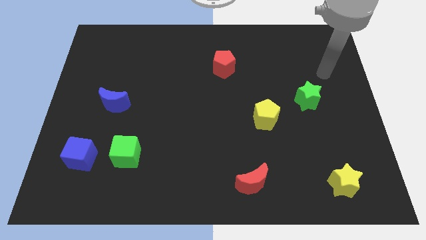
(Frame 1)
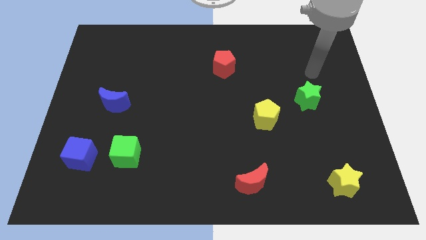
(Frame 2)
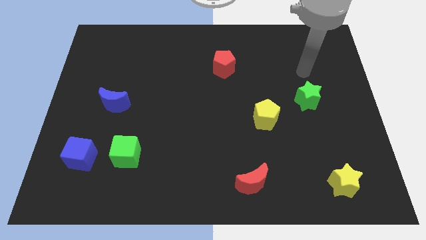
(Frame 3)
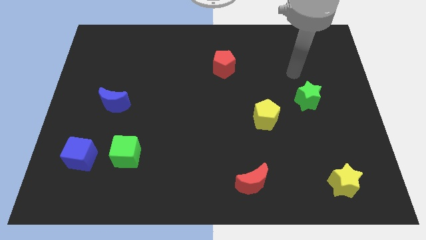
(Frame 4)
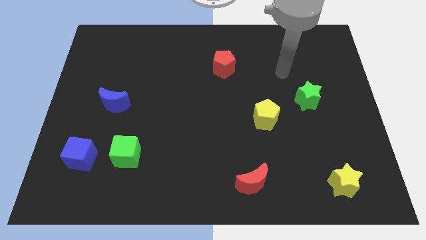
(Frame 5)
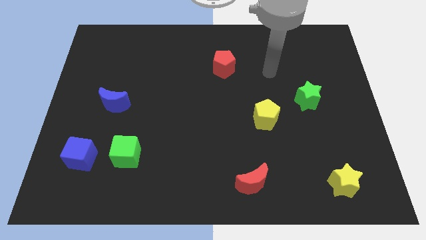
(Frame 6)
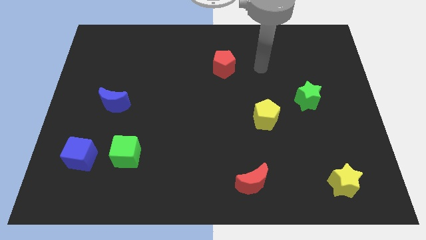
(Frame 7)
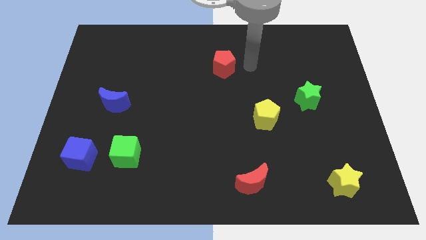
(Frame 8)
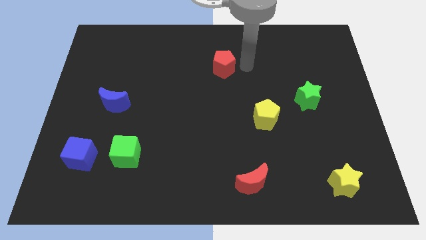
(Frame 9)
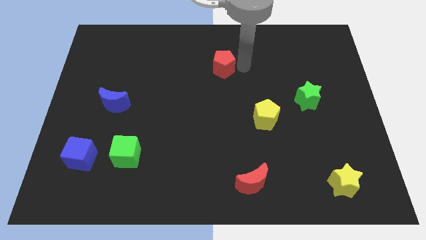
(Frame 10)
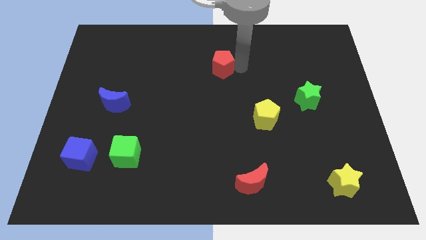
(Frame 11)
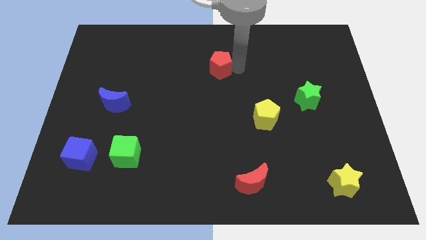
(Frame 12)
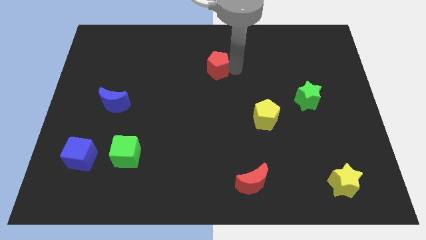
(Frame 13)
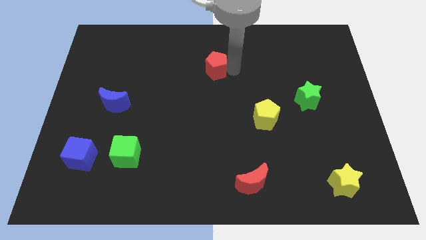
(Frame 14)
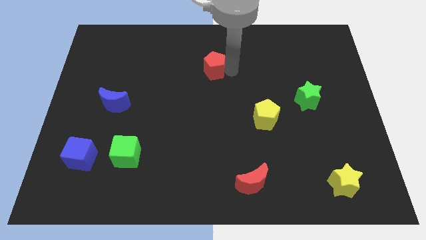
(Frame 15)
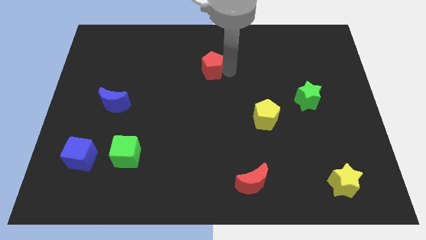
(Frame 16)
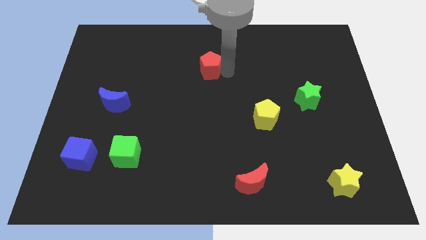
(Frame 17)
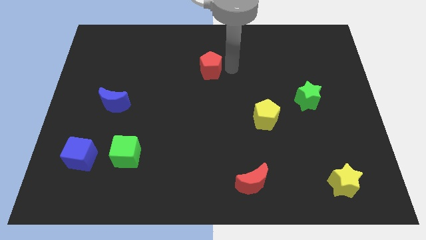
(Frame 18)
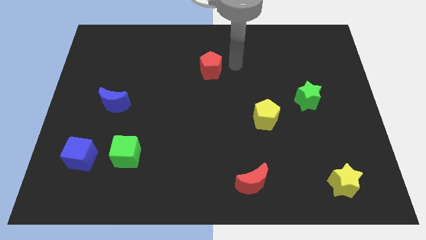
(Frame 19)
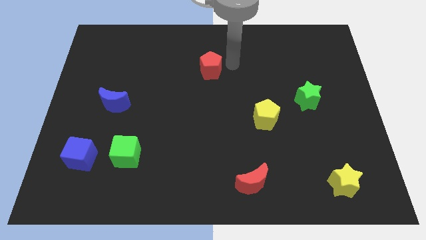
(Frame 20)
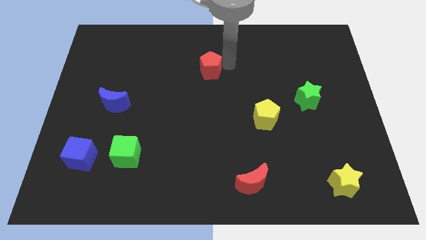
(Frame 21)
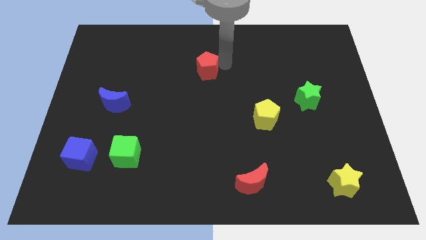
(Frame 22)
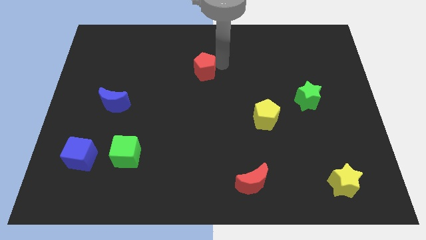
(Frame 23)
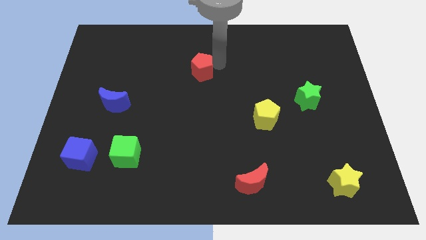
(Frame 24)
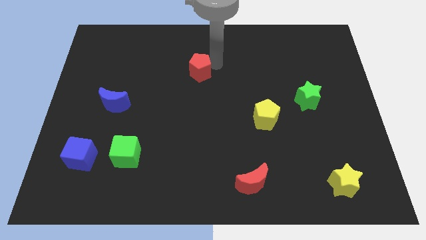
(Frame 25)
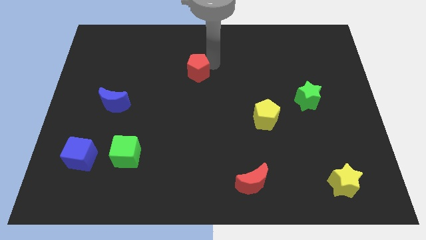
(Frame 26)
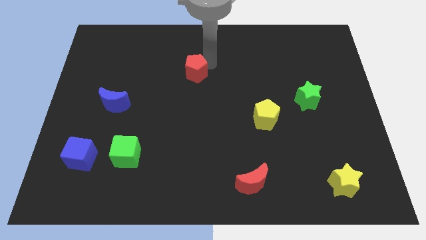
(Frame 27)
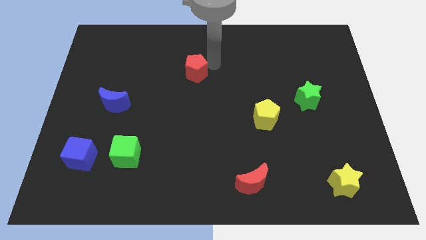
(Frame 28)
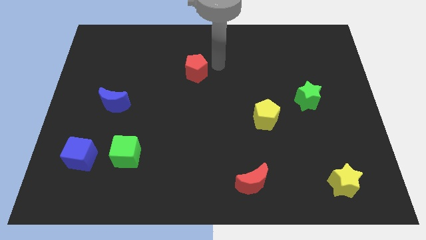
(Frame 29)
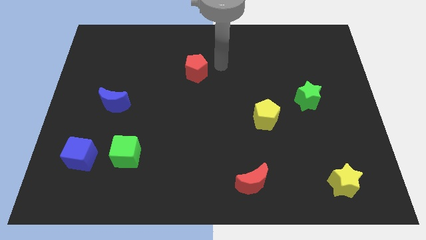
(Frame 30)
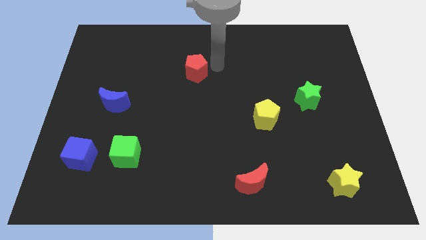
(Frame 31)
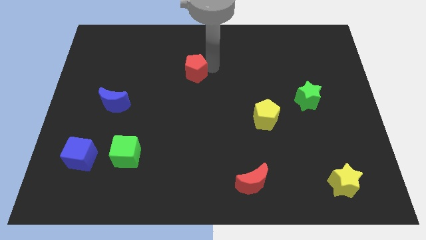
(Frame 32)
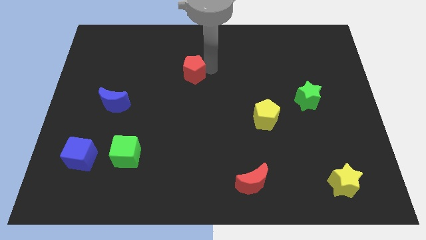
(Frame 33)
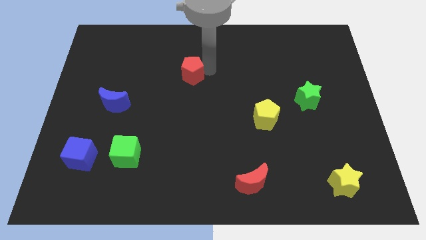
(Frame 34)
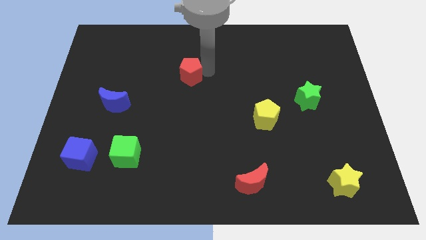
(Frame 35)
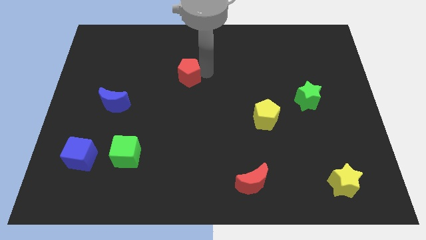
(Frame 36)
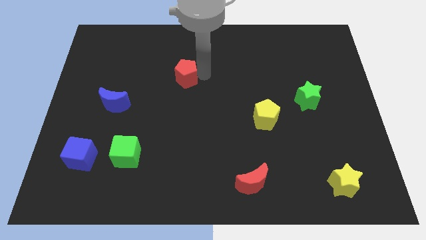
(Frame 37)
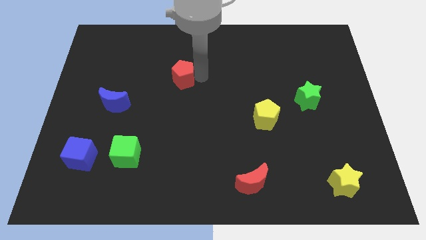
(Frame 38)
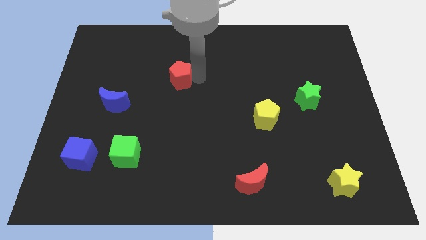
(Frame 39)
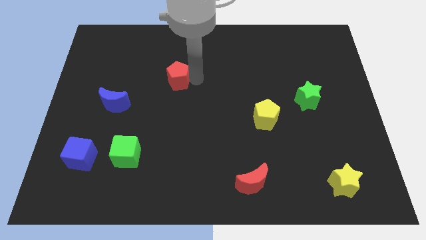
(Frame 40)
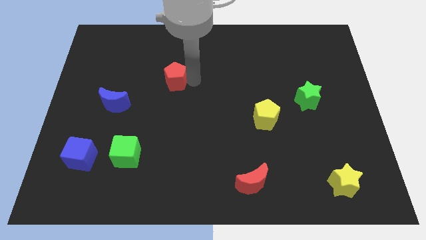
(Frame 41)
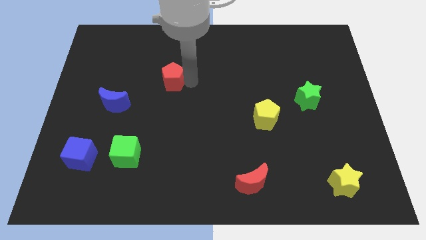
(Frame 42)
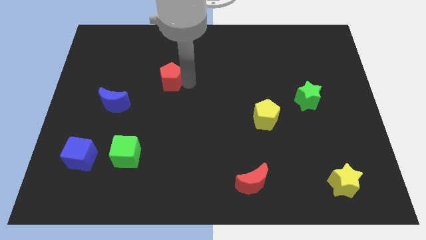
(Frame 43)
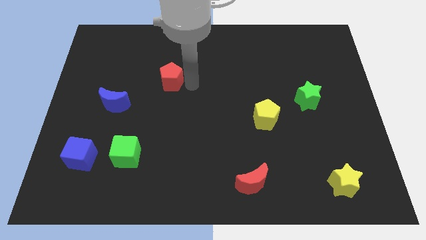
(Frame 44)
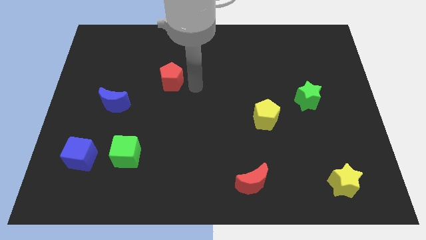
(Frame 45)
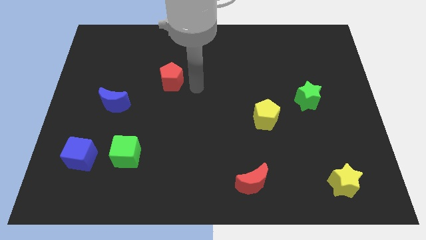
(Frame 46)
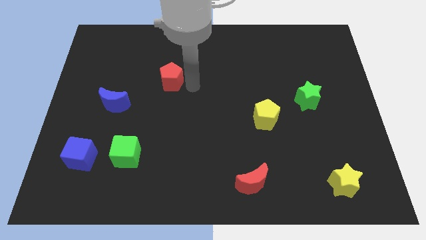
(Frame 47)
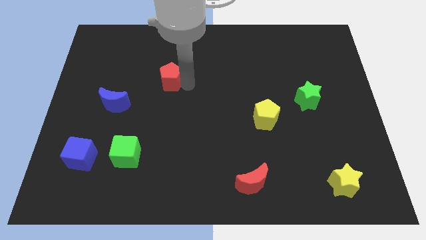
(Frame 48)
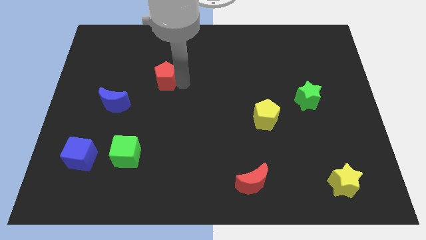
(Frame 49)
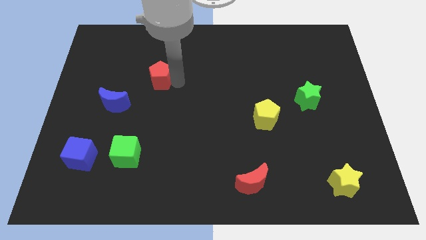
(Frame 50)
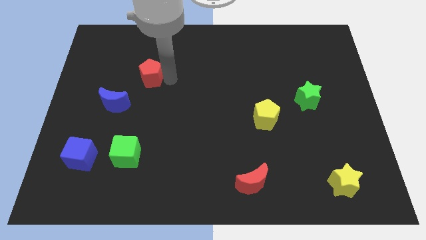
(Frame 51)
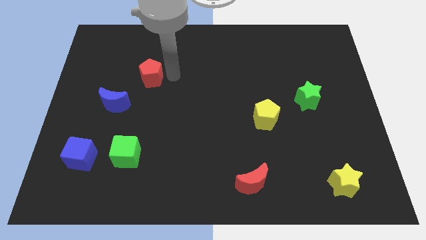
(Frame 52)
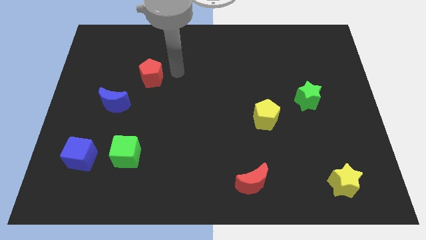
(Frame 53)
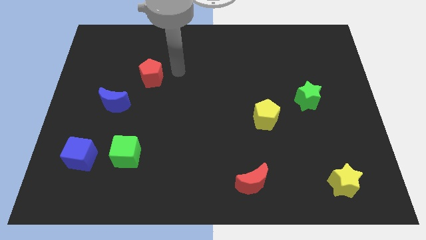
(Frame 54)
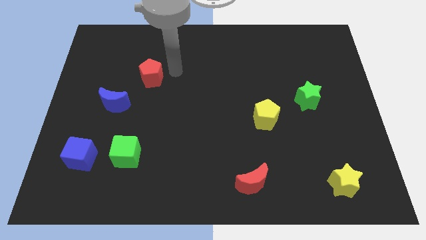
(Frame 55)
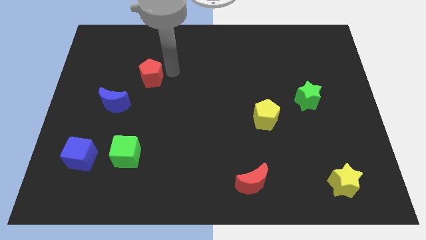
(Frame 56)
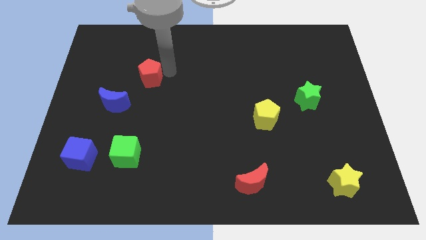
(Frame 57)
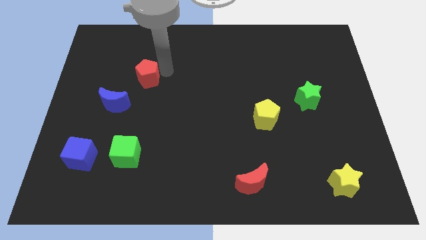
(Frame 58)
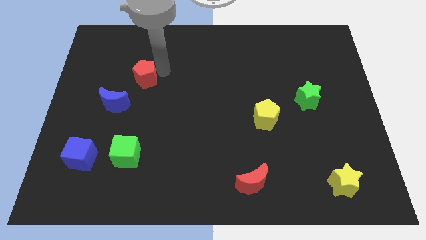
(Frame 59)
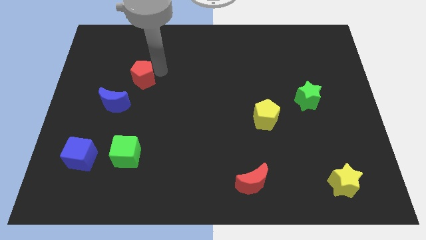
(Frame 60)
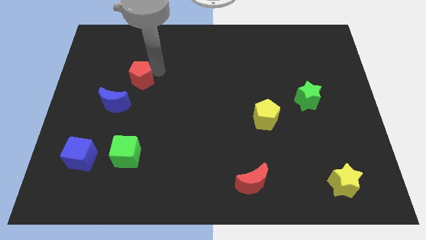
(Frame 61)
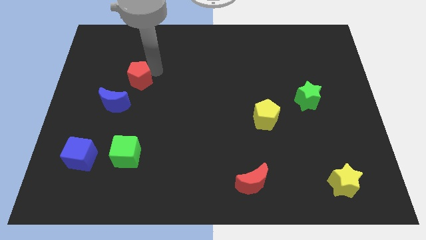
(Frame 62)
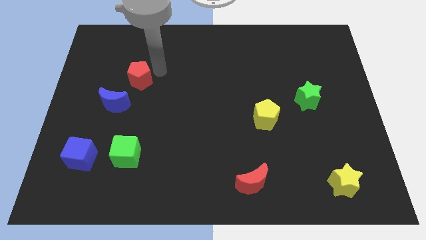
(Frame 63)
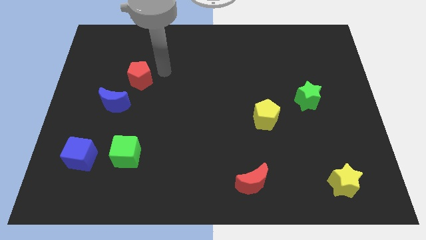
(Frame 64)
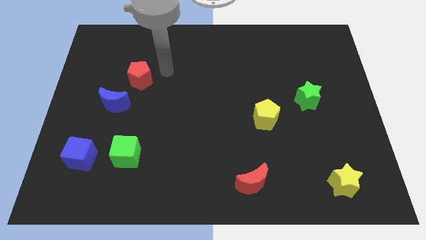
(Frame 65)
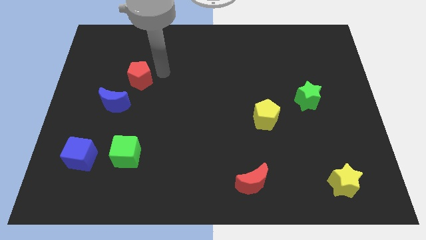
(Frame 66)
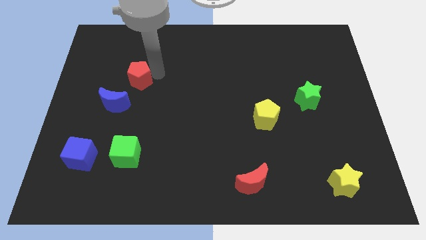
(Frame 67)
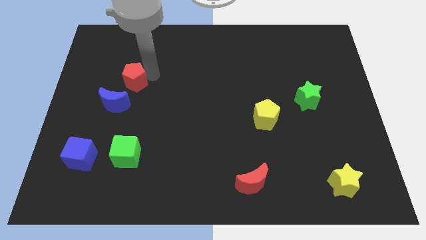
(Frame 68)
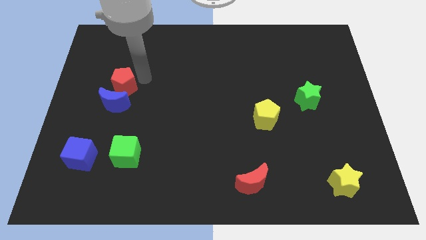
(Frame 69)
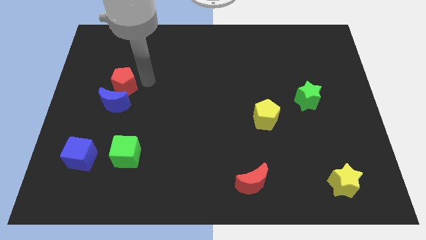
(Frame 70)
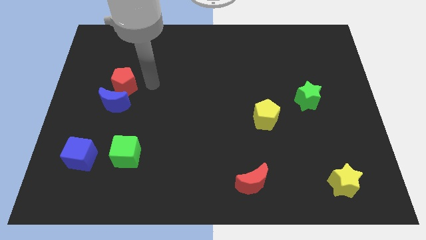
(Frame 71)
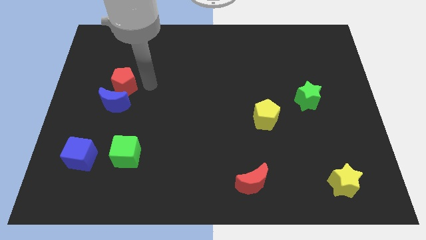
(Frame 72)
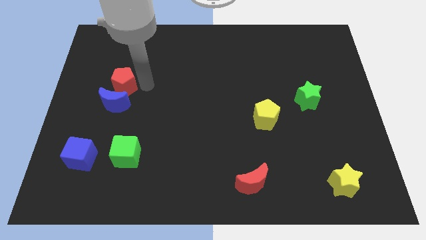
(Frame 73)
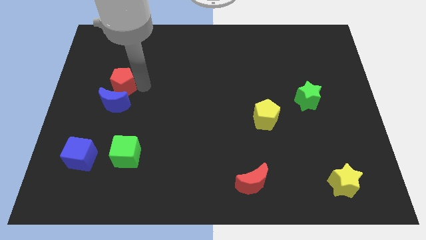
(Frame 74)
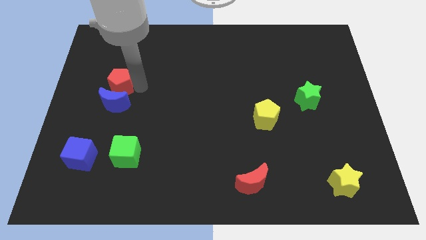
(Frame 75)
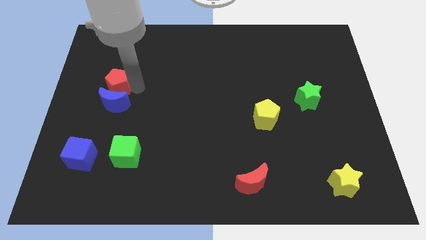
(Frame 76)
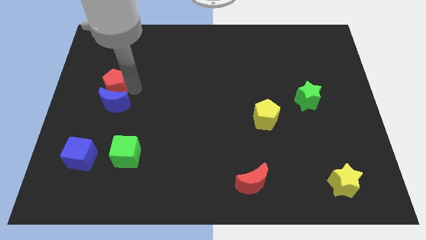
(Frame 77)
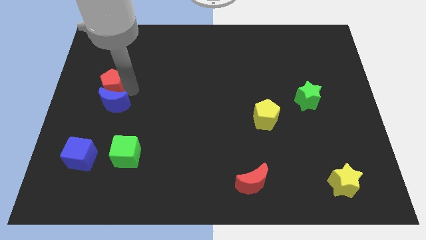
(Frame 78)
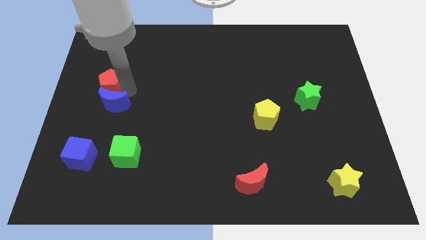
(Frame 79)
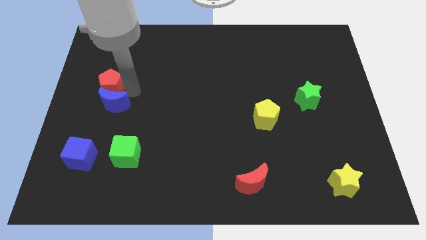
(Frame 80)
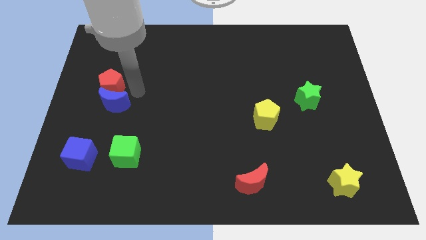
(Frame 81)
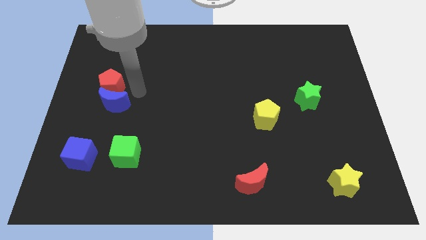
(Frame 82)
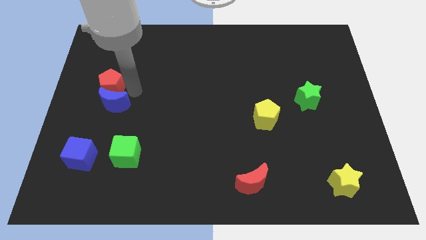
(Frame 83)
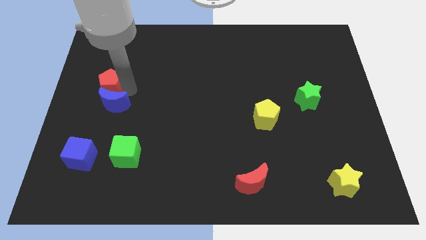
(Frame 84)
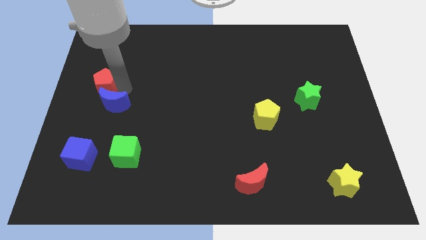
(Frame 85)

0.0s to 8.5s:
push the red pentagon to the center left
